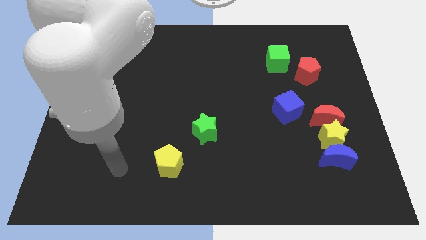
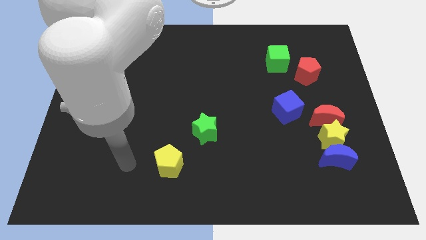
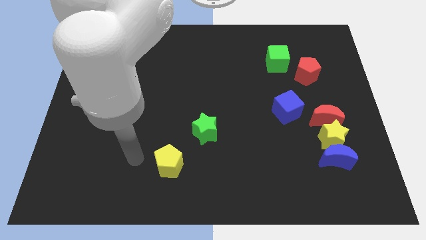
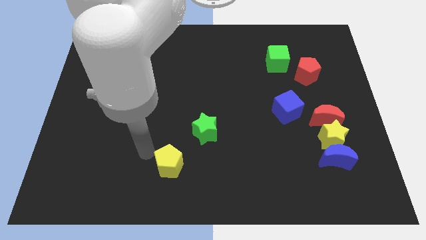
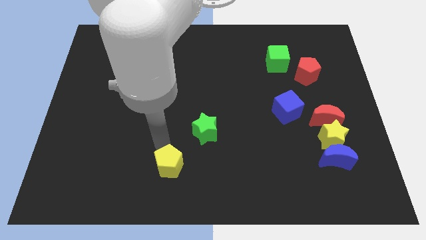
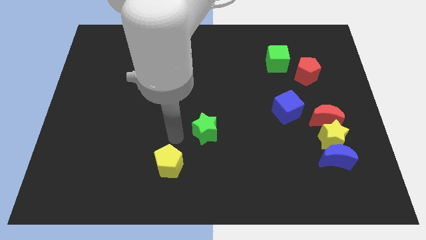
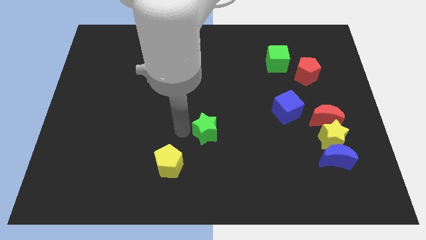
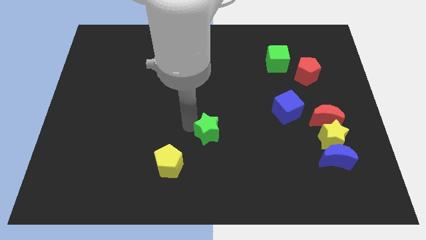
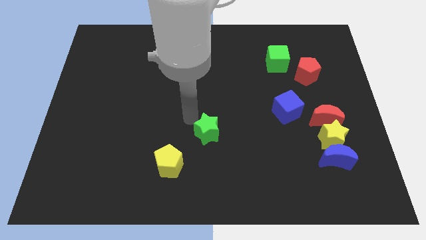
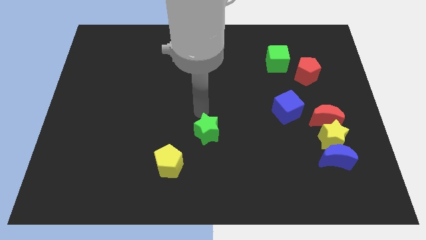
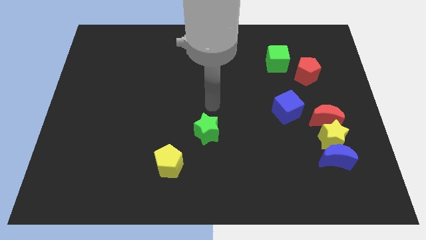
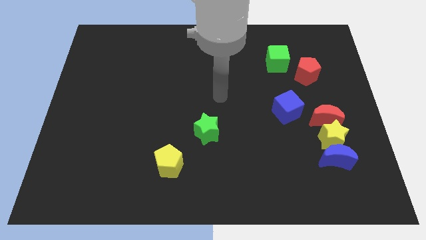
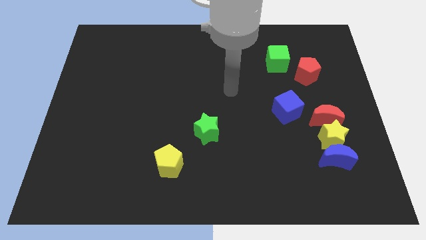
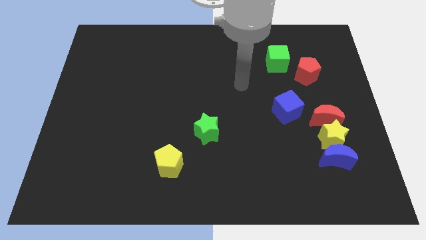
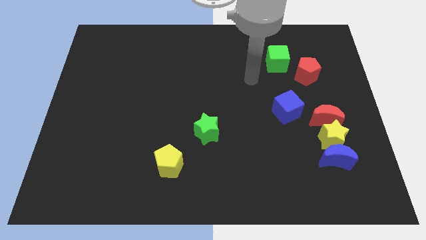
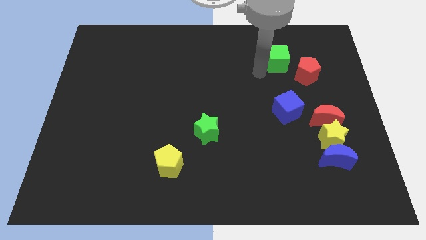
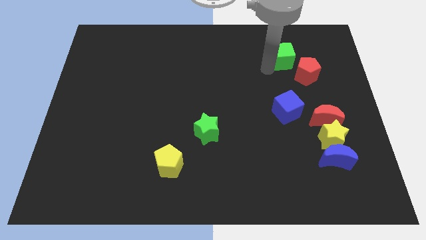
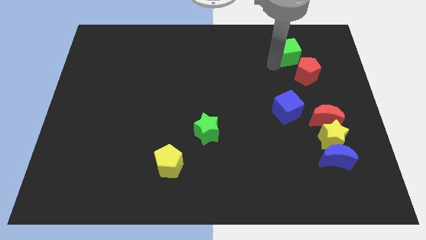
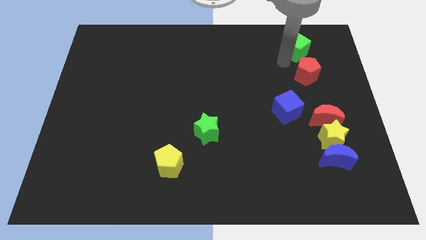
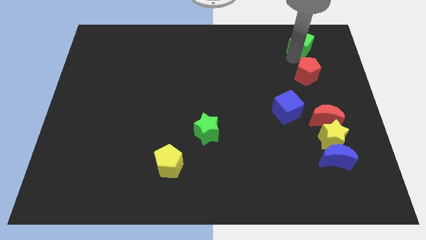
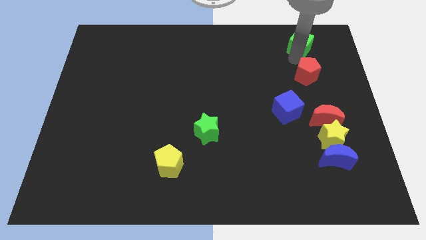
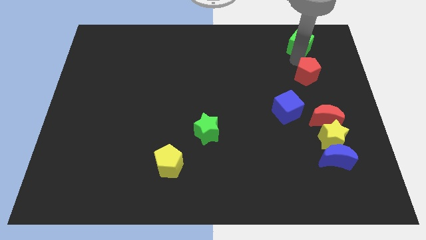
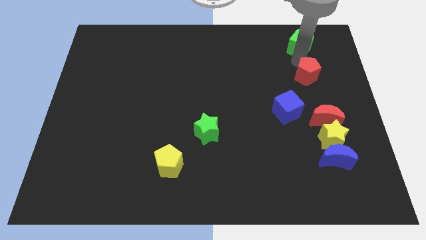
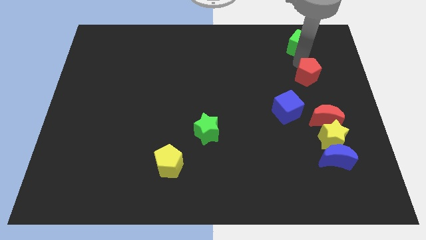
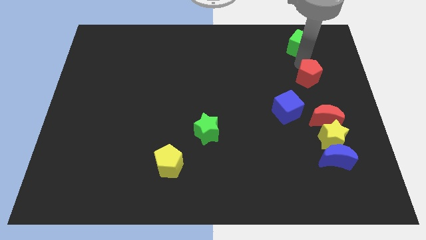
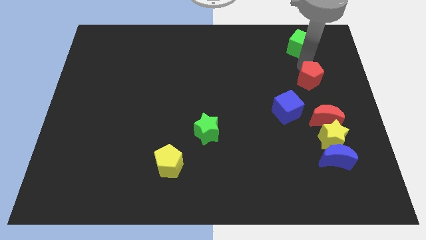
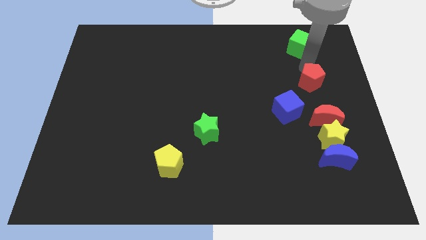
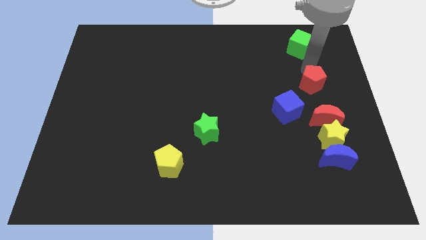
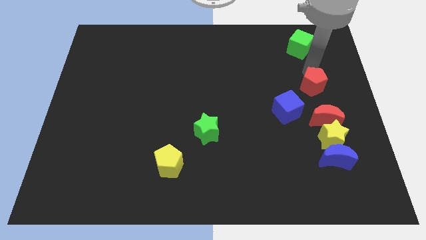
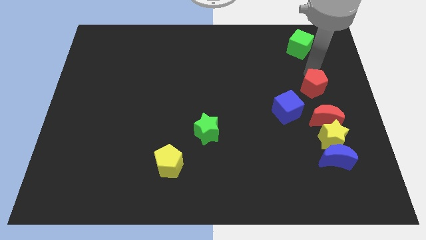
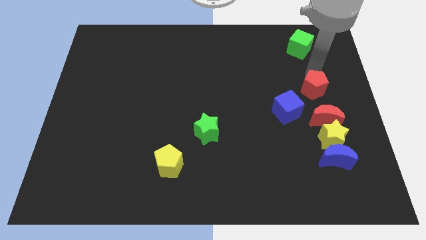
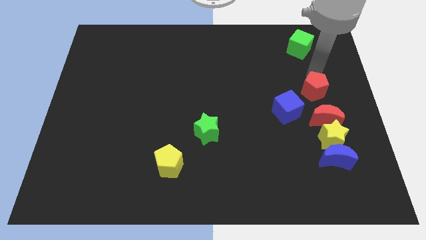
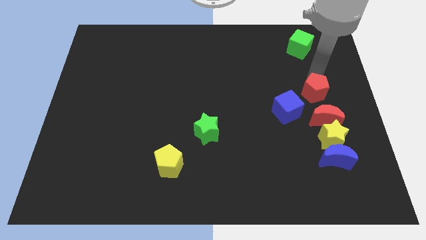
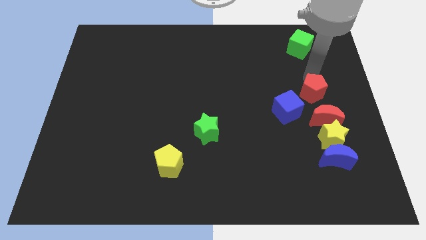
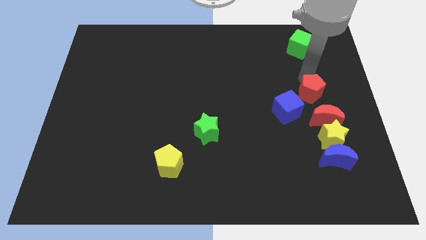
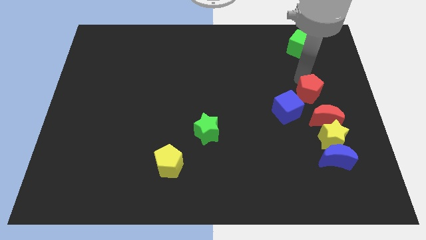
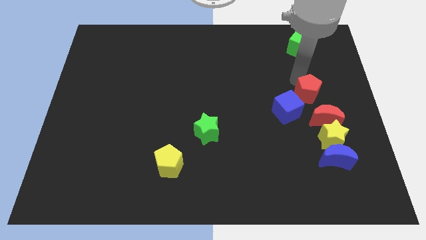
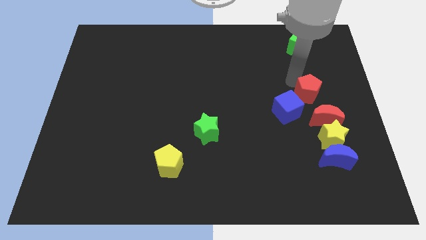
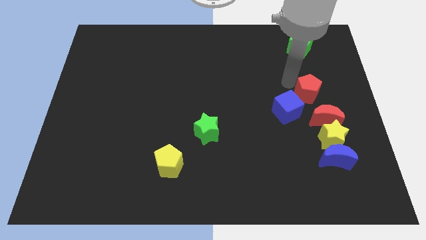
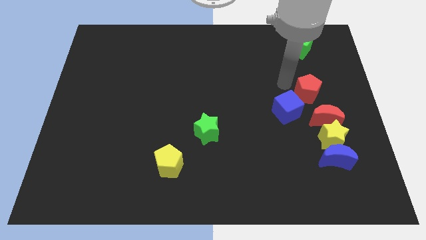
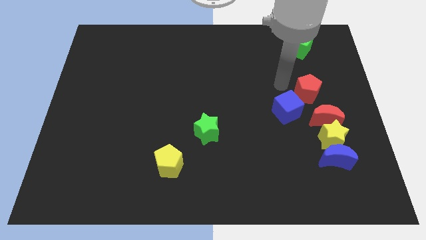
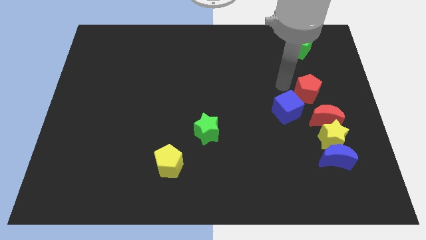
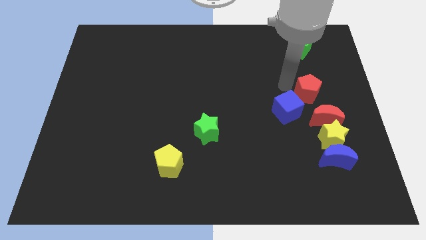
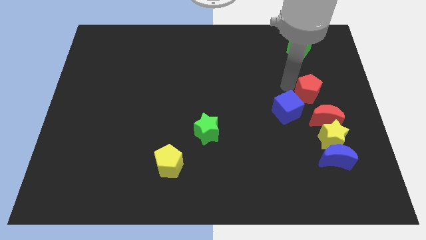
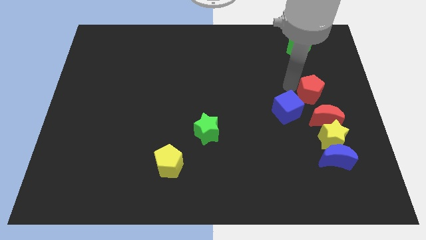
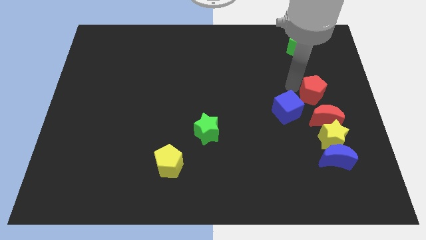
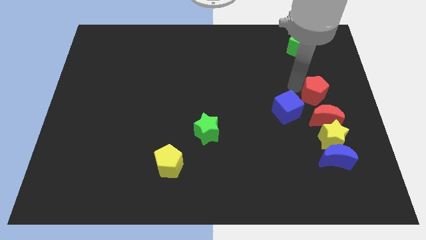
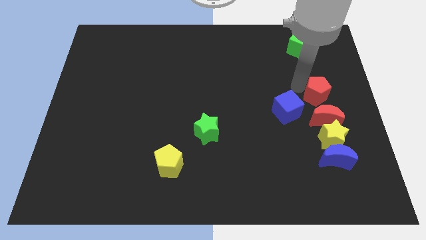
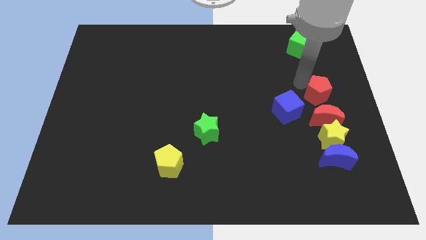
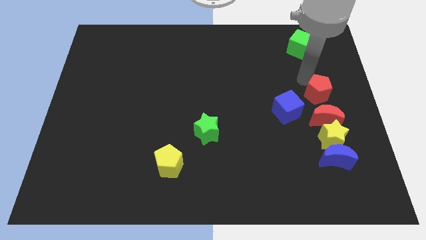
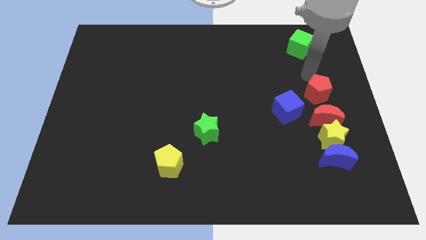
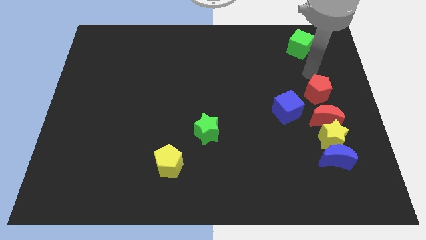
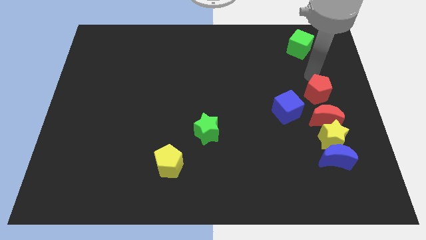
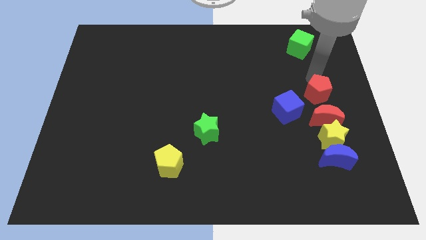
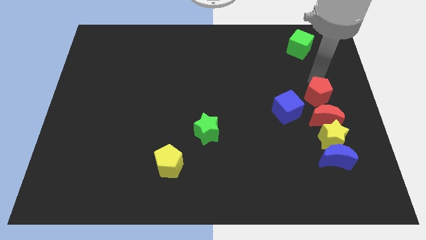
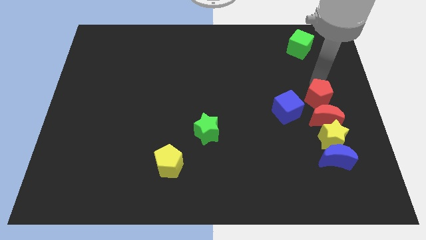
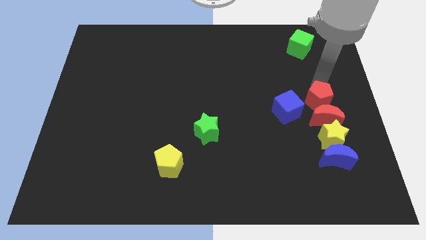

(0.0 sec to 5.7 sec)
move the red pentagon close to the red moon

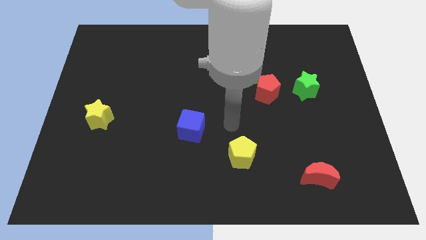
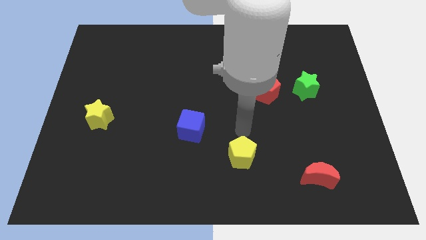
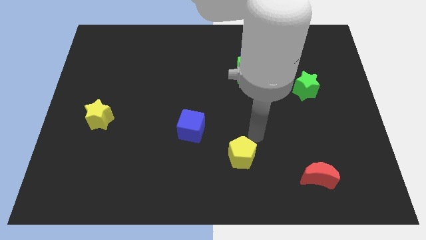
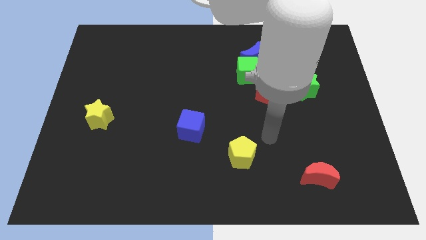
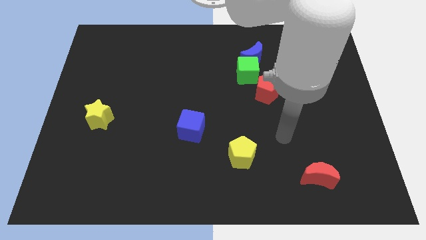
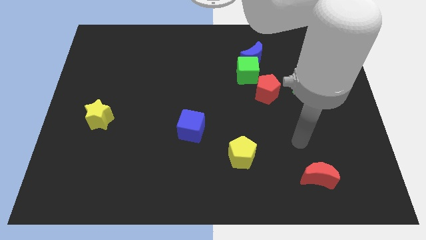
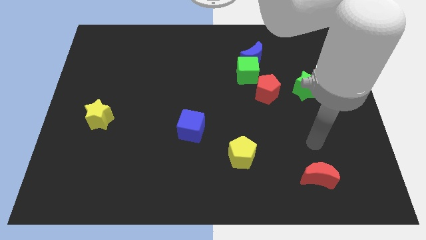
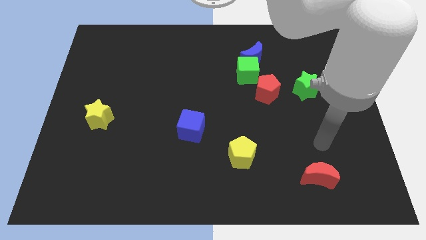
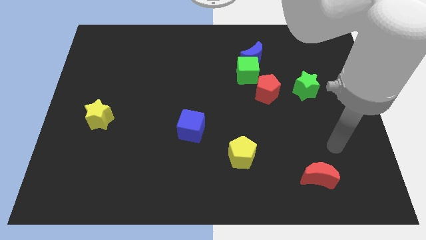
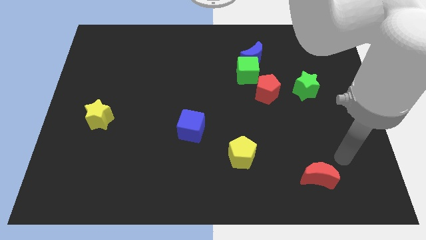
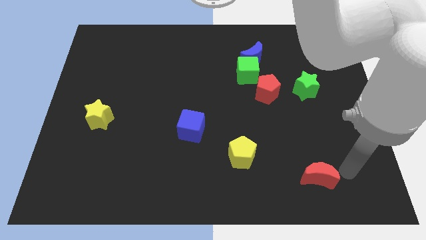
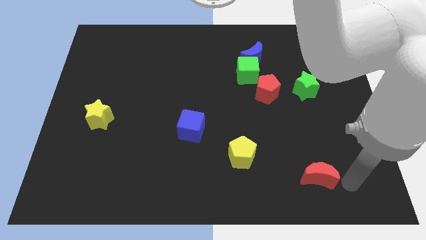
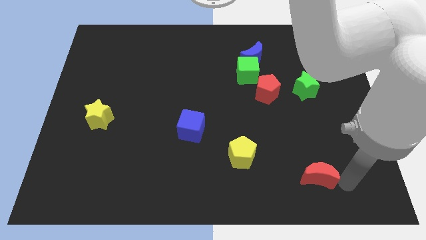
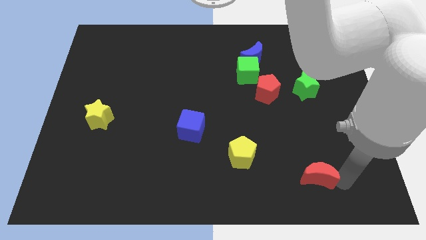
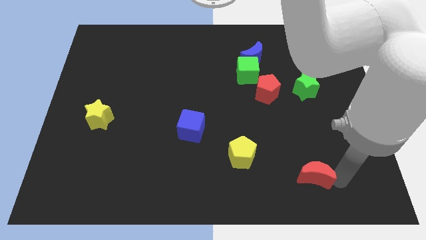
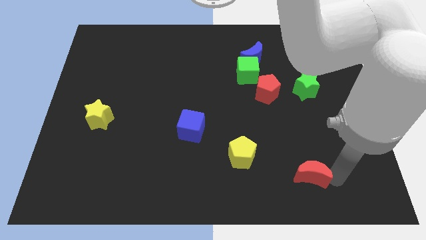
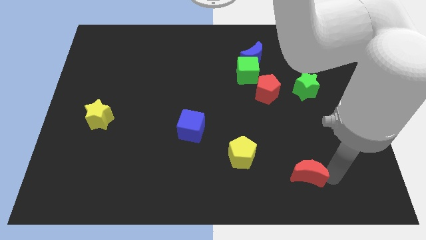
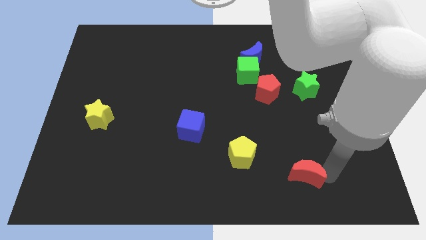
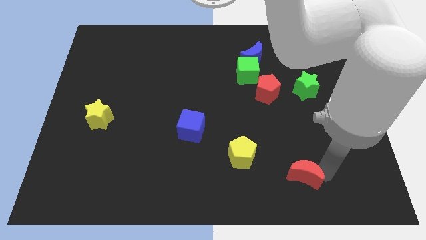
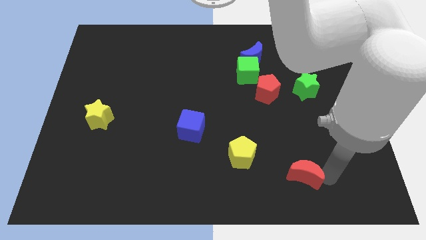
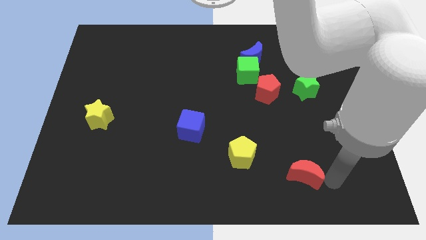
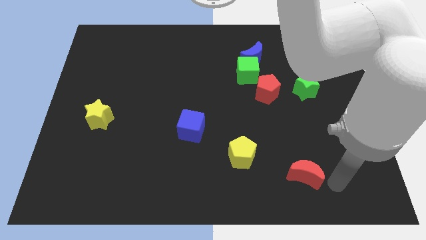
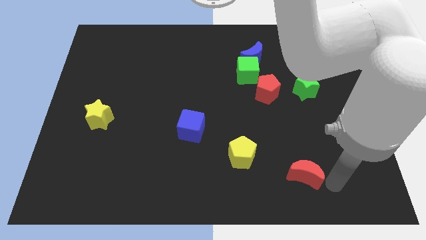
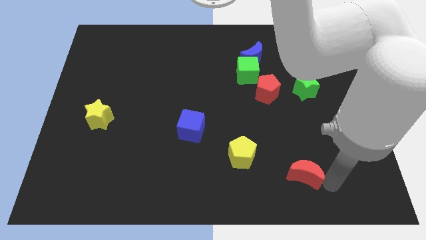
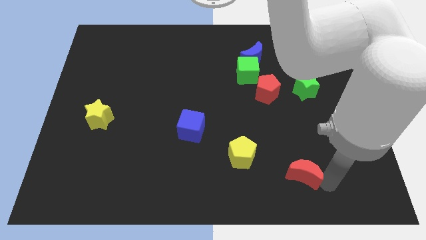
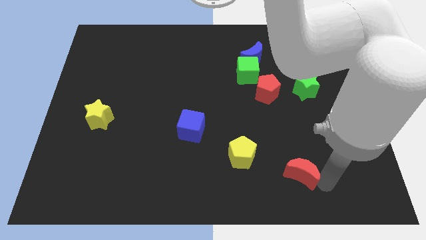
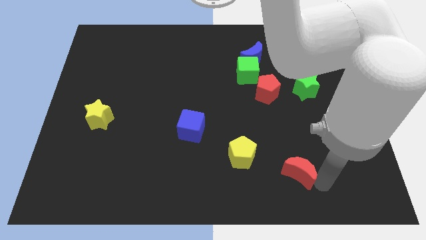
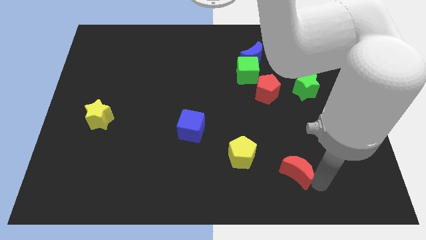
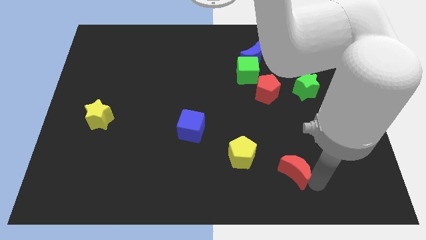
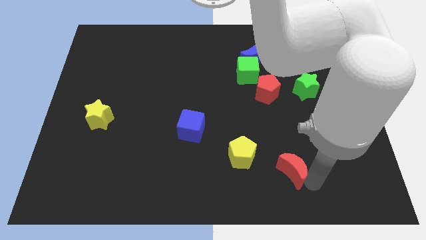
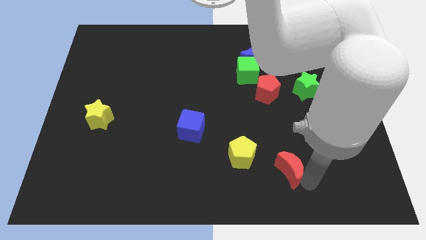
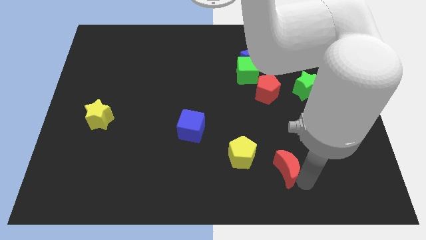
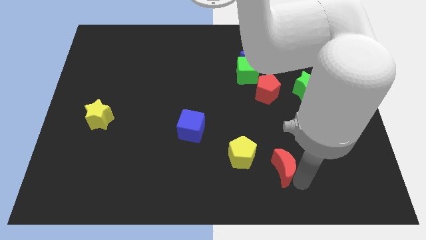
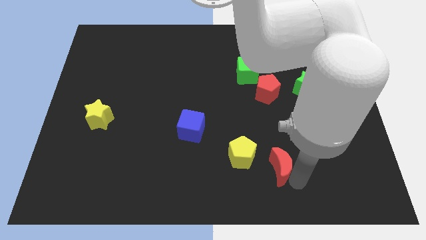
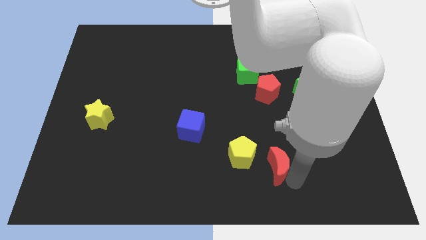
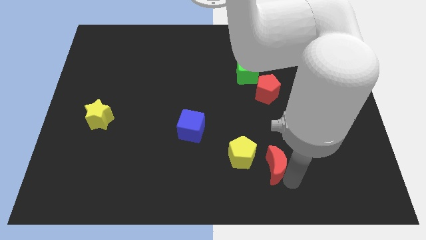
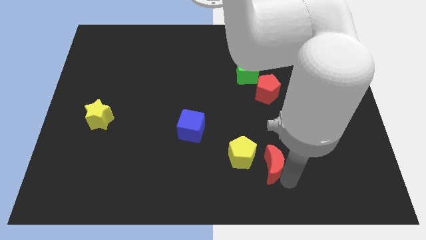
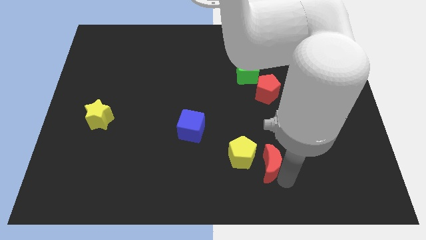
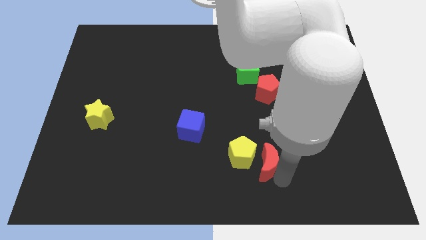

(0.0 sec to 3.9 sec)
put the red moon to the yellow pentagon
